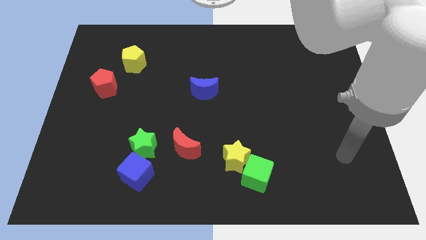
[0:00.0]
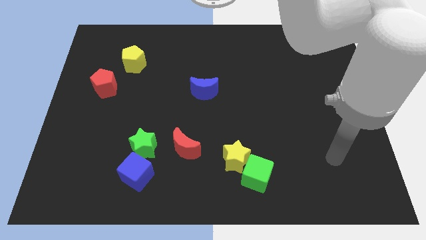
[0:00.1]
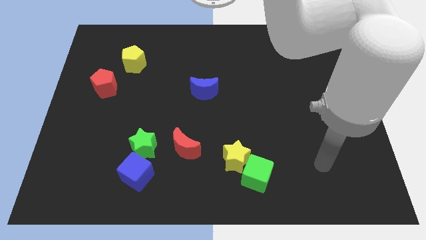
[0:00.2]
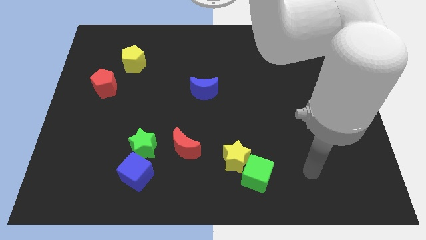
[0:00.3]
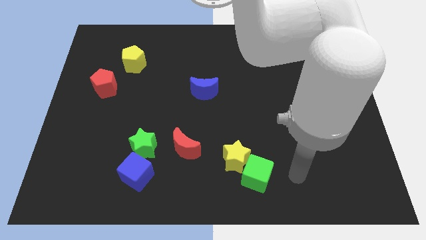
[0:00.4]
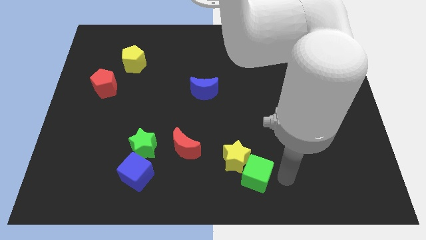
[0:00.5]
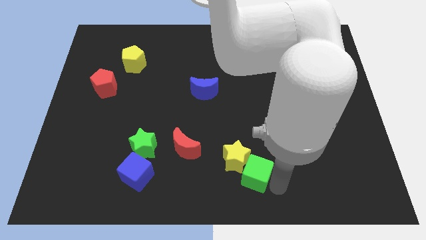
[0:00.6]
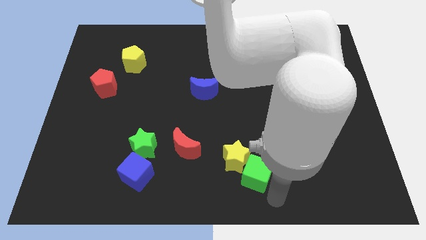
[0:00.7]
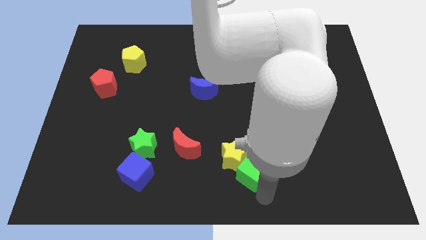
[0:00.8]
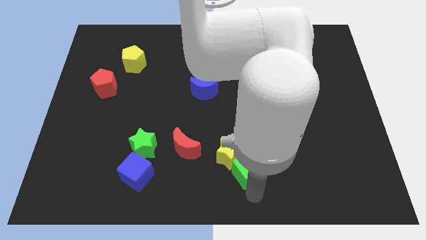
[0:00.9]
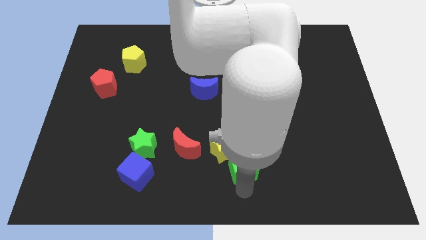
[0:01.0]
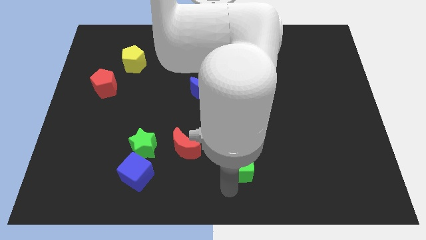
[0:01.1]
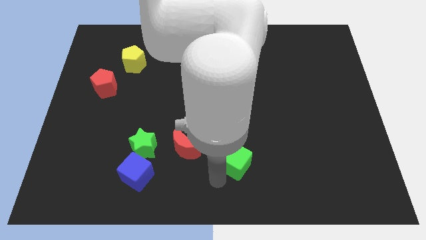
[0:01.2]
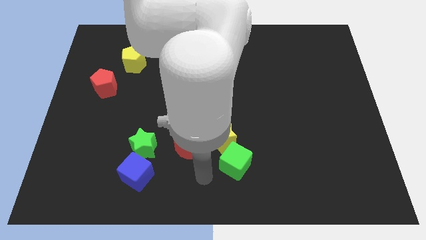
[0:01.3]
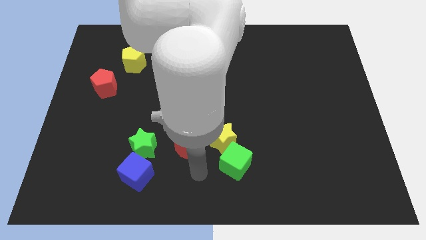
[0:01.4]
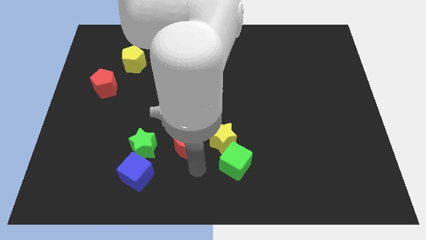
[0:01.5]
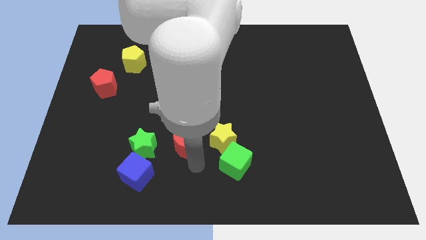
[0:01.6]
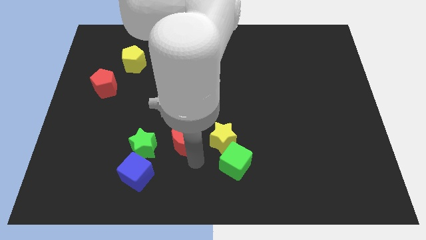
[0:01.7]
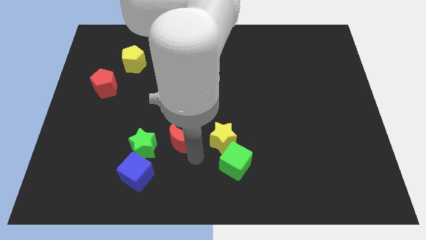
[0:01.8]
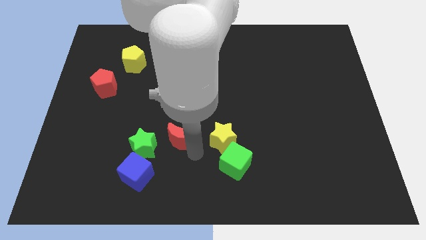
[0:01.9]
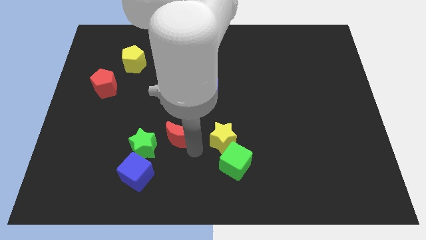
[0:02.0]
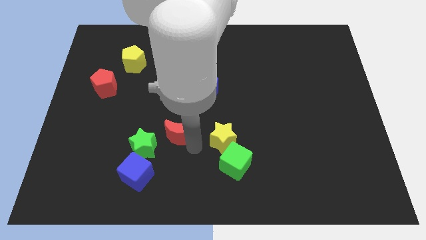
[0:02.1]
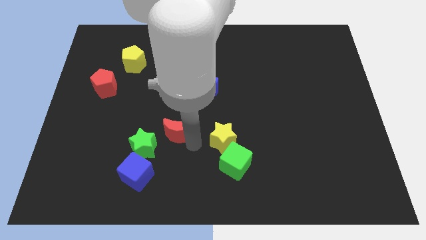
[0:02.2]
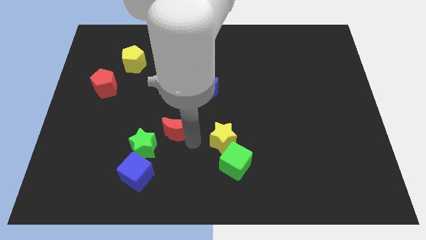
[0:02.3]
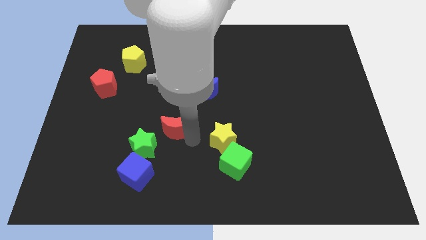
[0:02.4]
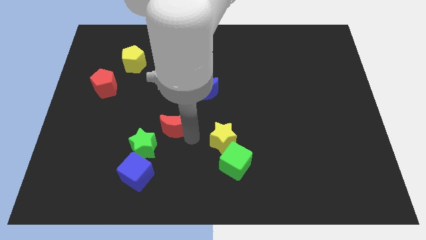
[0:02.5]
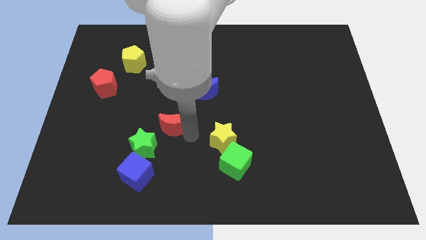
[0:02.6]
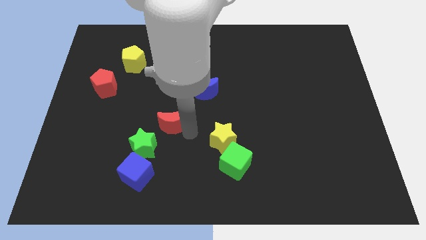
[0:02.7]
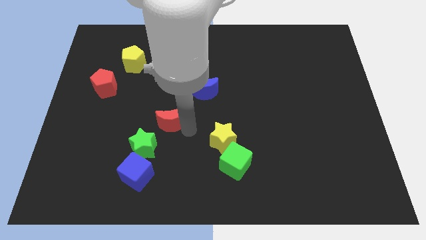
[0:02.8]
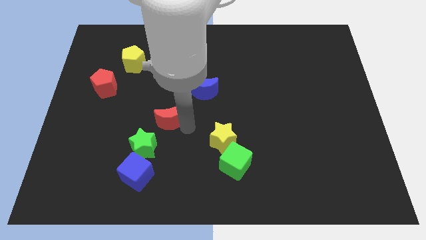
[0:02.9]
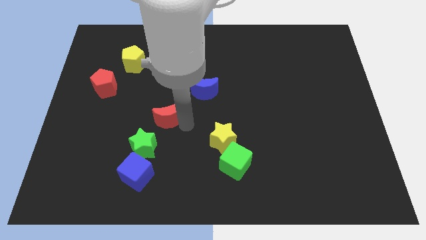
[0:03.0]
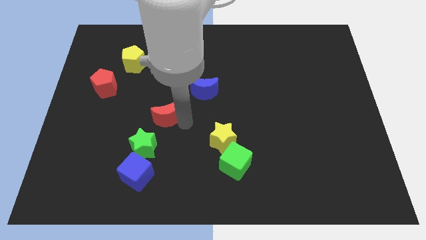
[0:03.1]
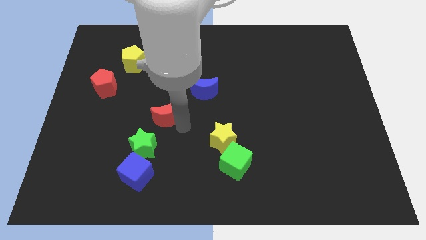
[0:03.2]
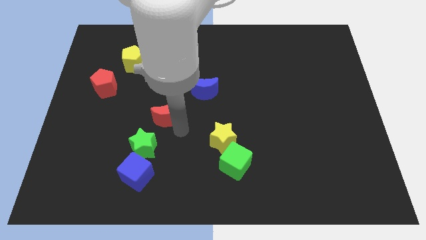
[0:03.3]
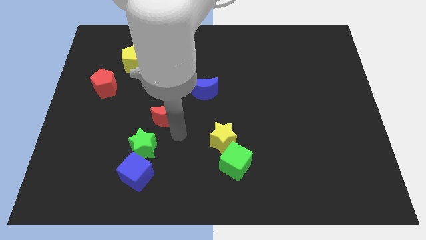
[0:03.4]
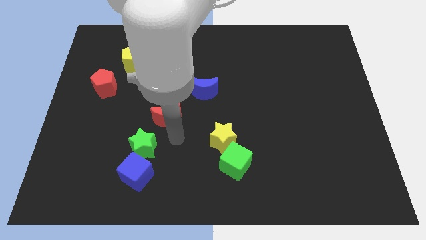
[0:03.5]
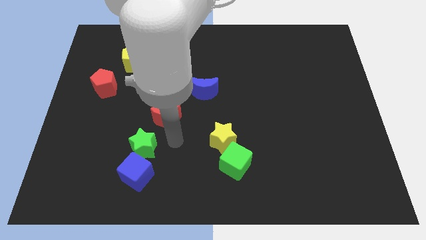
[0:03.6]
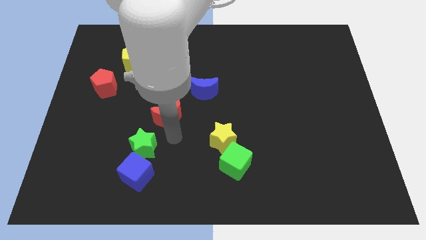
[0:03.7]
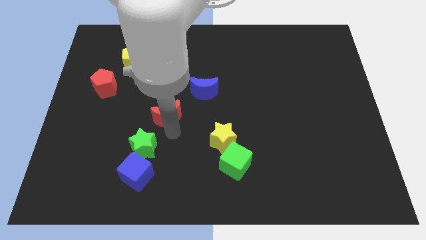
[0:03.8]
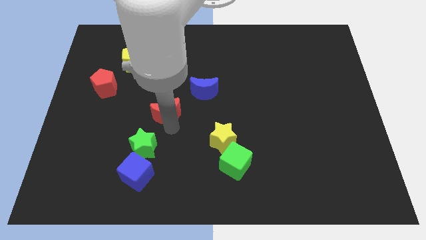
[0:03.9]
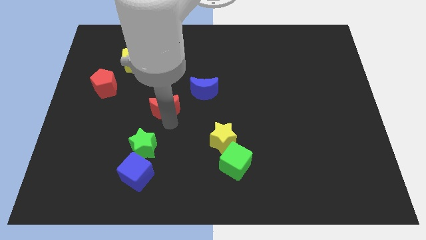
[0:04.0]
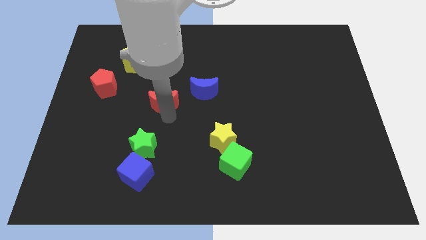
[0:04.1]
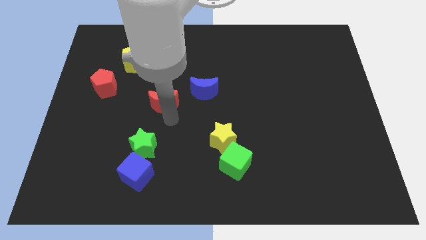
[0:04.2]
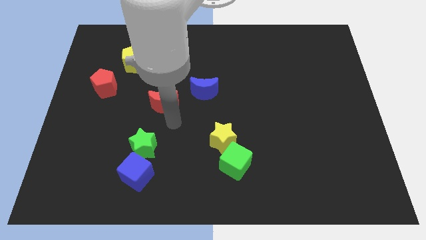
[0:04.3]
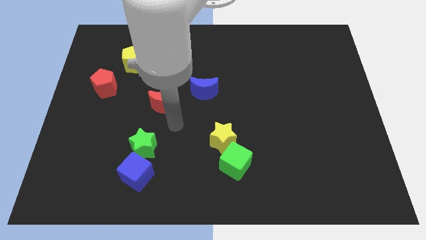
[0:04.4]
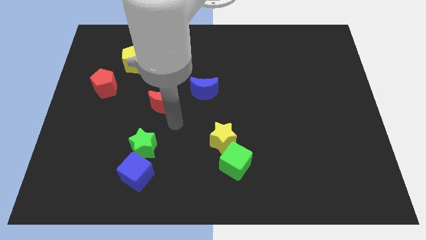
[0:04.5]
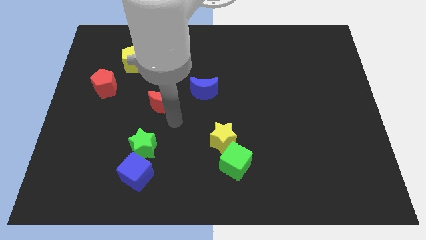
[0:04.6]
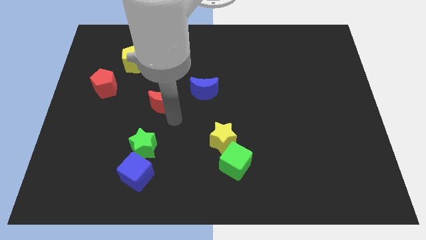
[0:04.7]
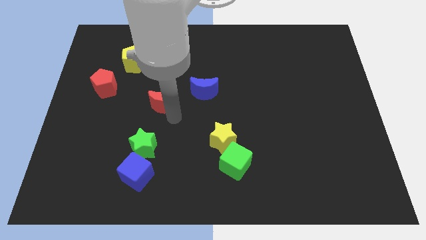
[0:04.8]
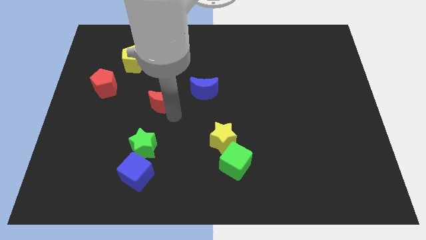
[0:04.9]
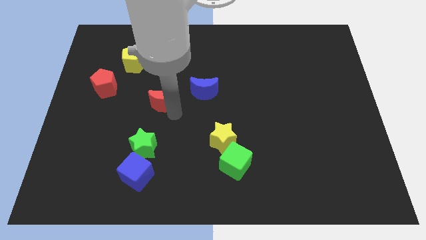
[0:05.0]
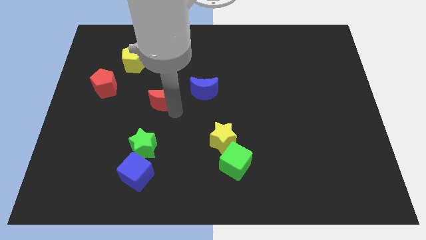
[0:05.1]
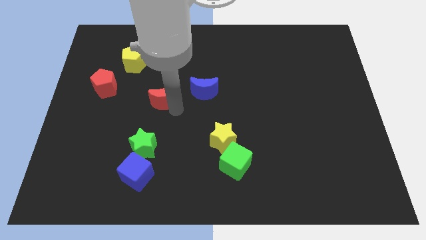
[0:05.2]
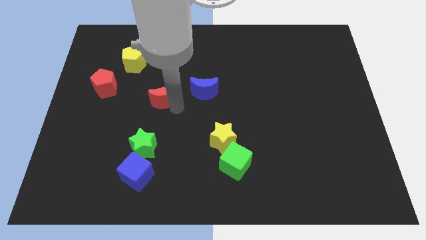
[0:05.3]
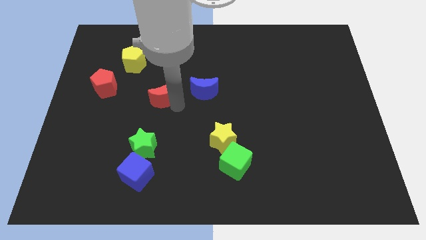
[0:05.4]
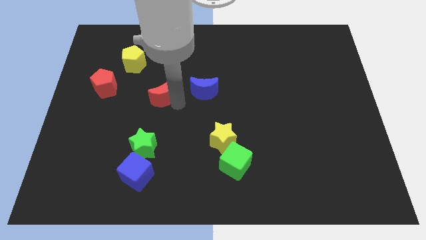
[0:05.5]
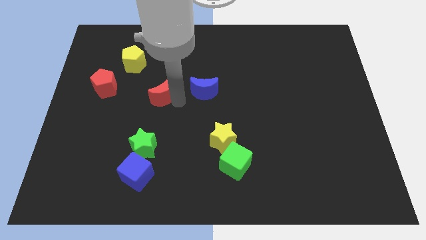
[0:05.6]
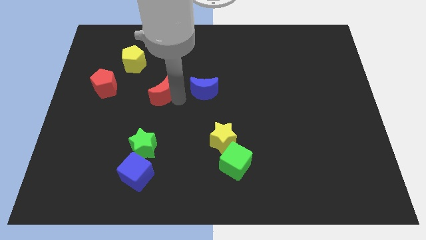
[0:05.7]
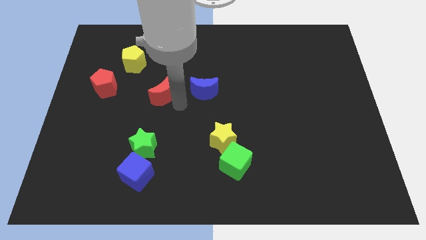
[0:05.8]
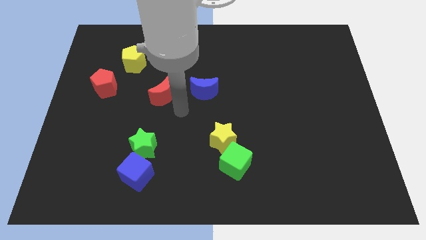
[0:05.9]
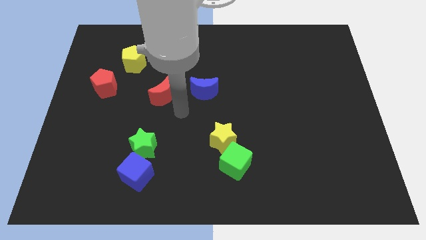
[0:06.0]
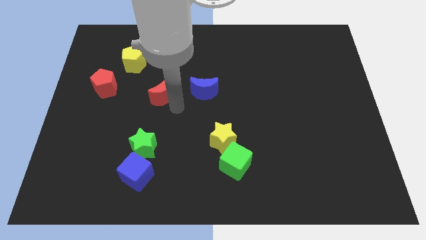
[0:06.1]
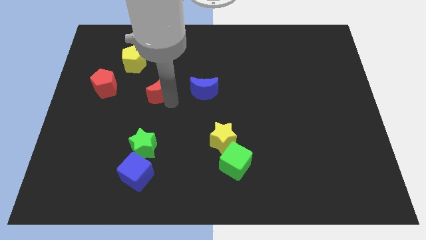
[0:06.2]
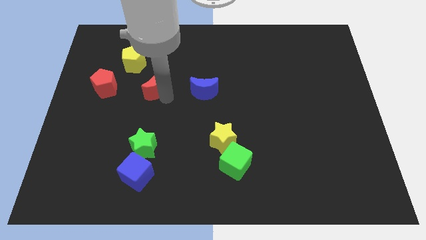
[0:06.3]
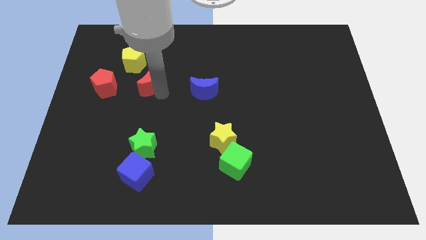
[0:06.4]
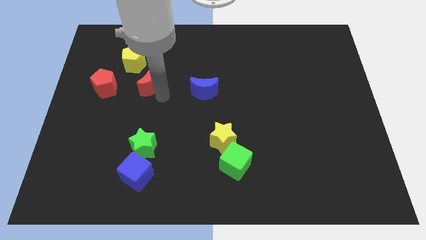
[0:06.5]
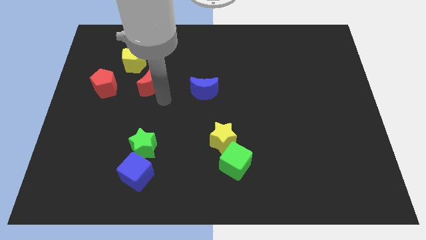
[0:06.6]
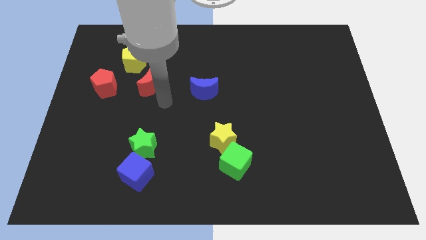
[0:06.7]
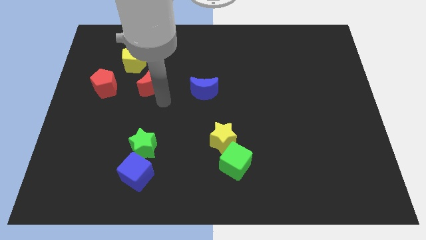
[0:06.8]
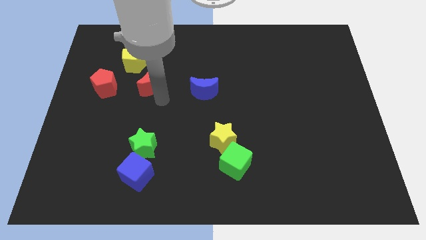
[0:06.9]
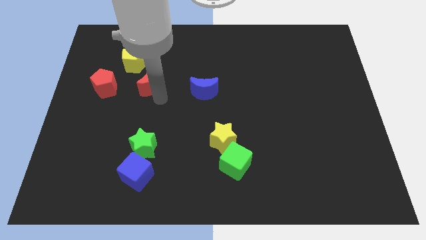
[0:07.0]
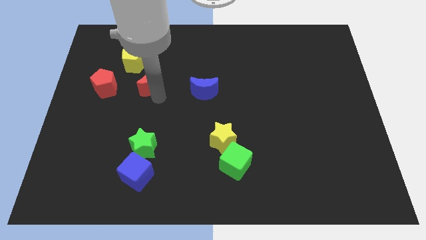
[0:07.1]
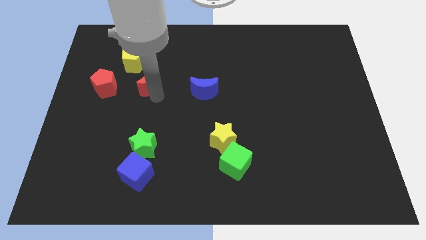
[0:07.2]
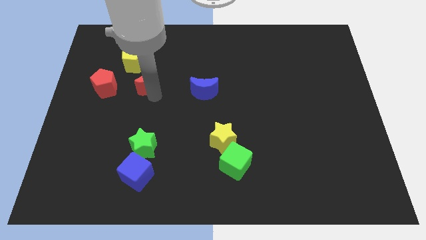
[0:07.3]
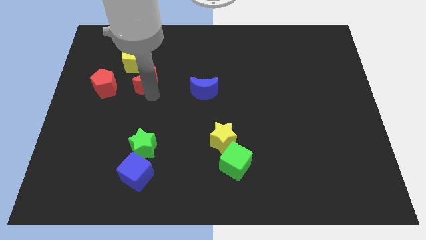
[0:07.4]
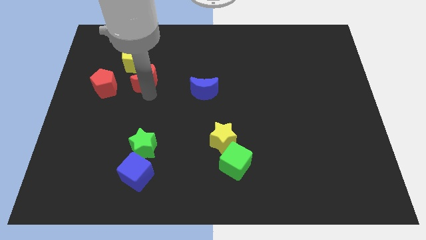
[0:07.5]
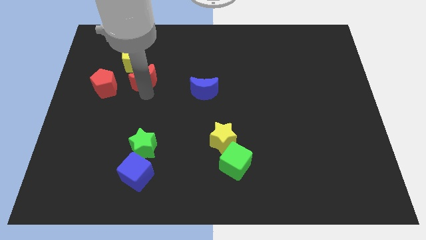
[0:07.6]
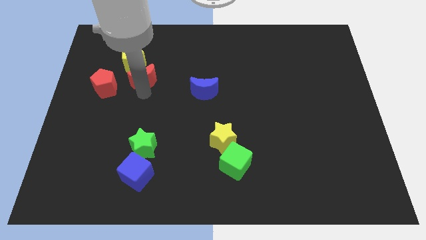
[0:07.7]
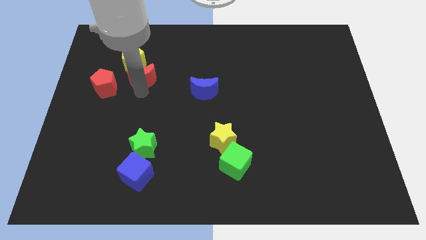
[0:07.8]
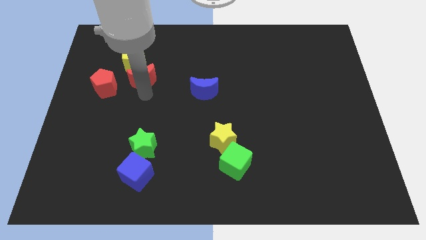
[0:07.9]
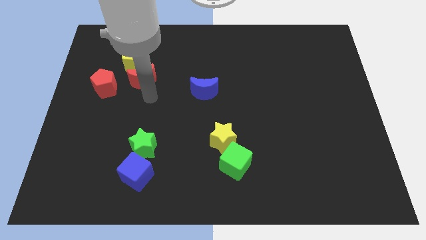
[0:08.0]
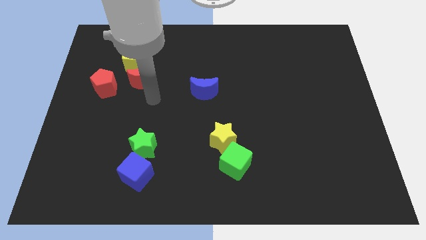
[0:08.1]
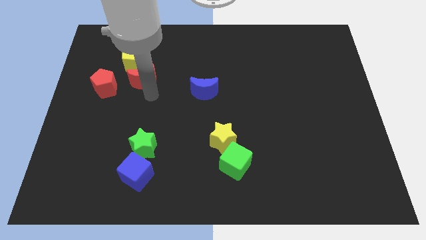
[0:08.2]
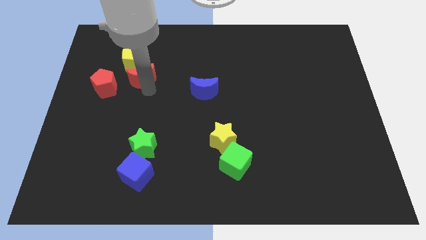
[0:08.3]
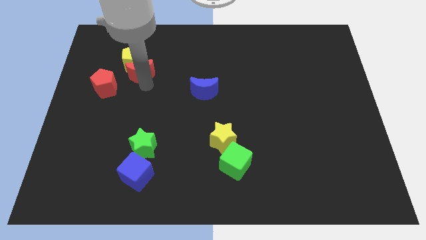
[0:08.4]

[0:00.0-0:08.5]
put the red moon next to the yellow pentagon
